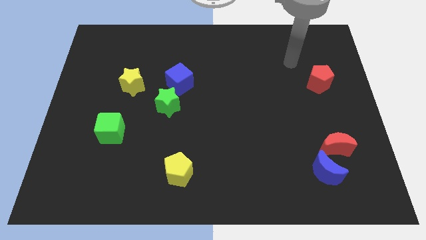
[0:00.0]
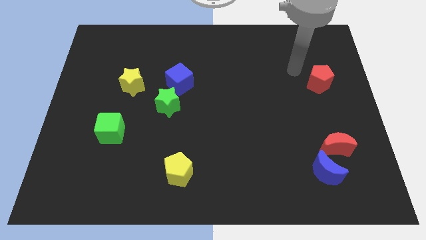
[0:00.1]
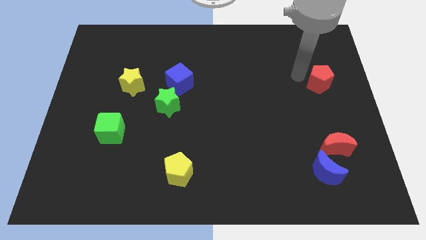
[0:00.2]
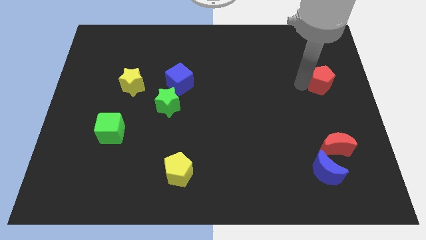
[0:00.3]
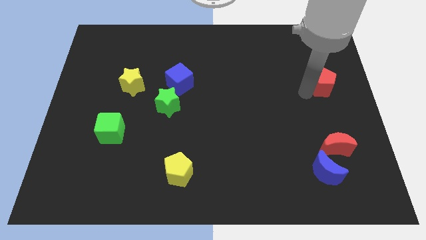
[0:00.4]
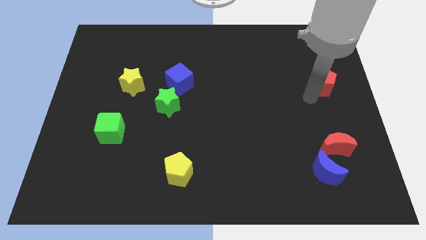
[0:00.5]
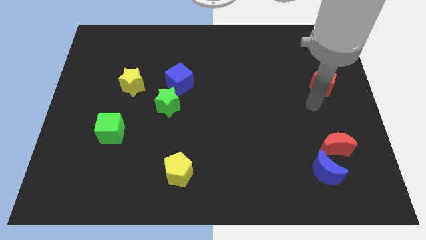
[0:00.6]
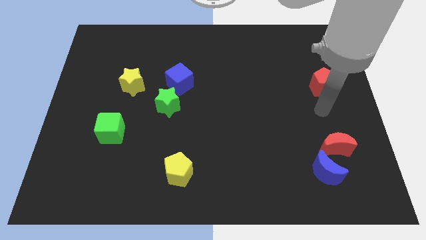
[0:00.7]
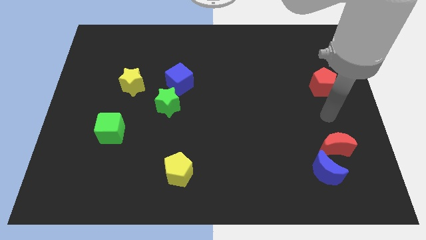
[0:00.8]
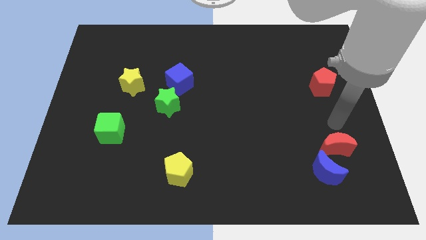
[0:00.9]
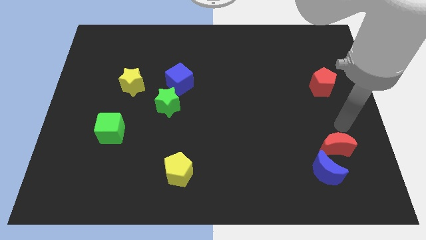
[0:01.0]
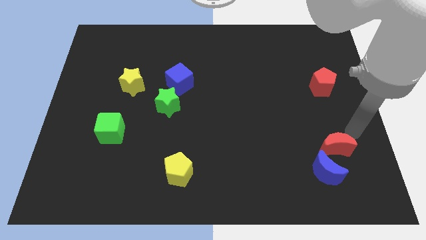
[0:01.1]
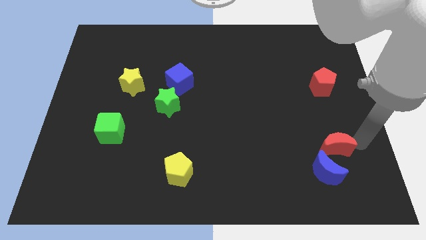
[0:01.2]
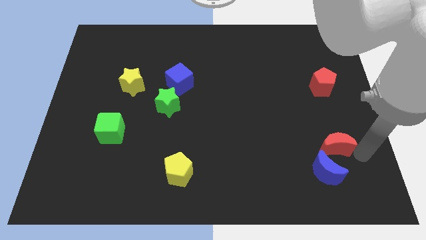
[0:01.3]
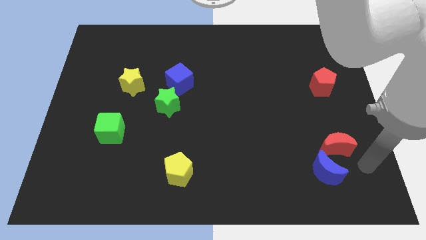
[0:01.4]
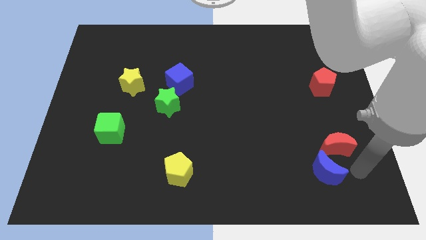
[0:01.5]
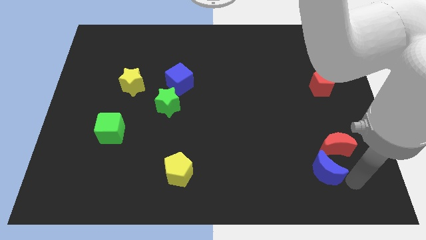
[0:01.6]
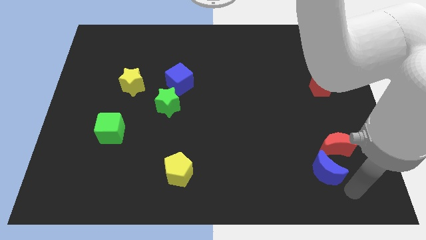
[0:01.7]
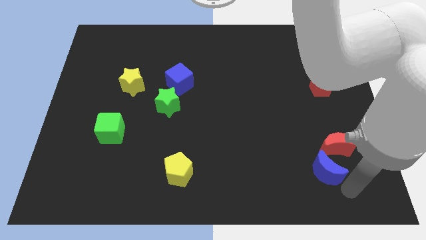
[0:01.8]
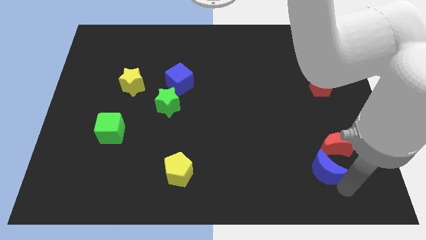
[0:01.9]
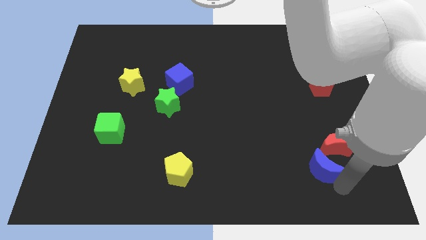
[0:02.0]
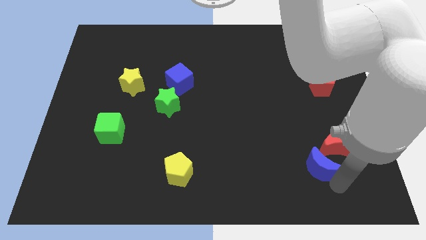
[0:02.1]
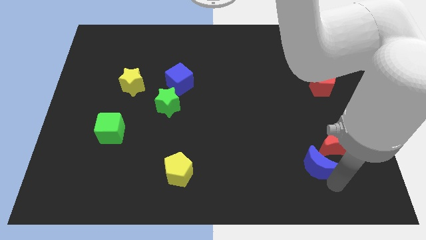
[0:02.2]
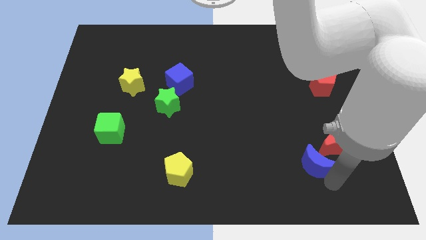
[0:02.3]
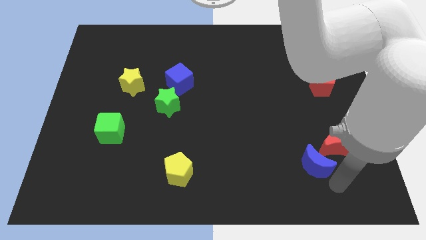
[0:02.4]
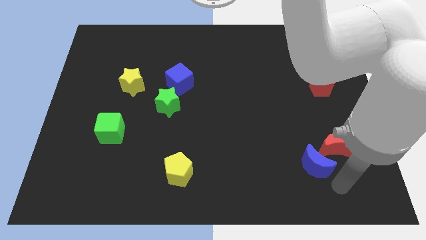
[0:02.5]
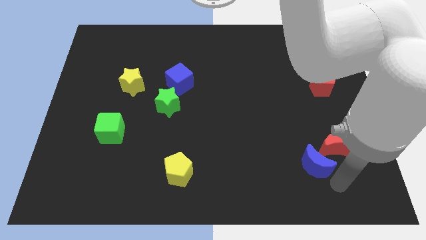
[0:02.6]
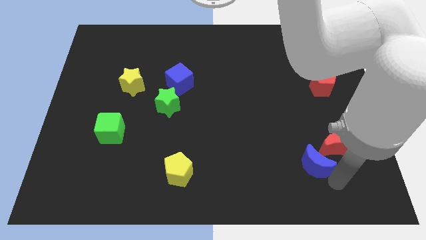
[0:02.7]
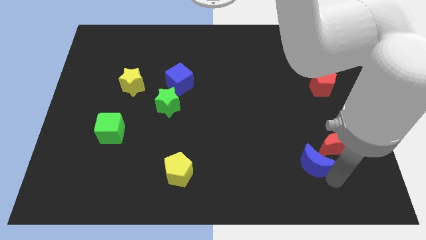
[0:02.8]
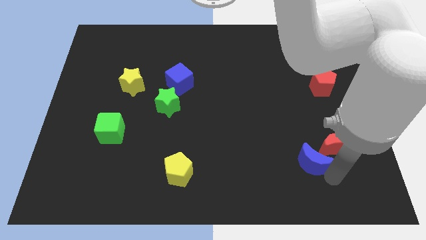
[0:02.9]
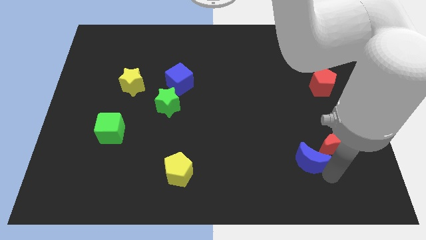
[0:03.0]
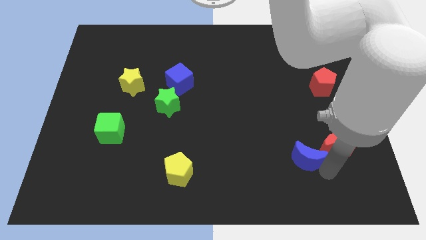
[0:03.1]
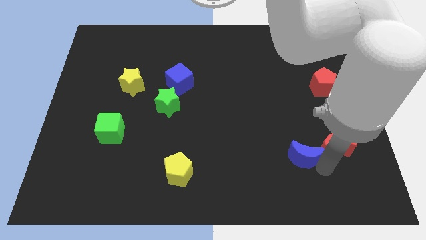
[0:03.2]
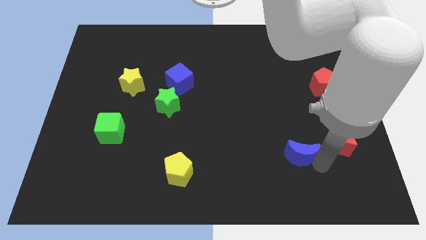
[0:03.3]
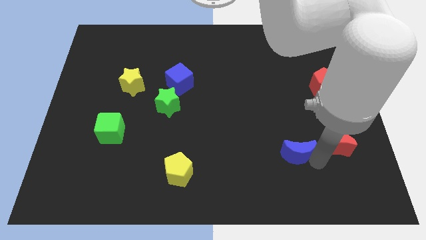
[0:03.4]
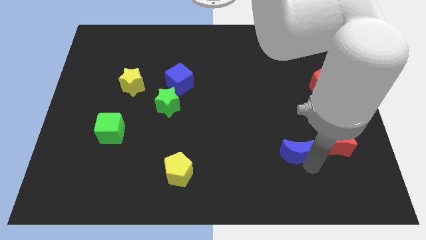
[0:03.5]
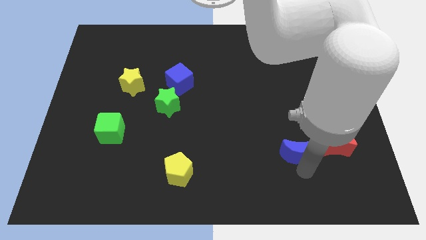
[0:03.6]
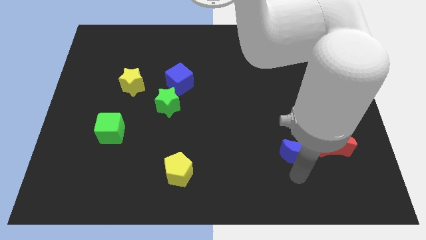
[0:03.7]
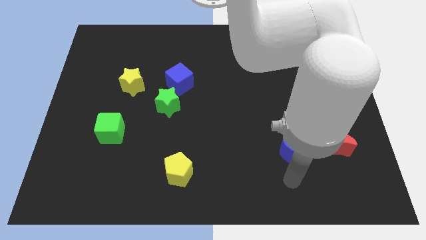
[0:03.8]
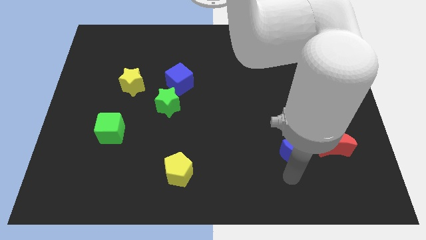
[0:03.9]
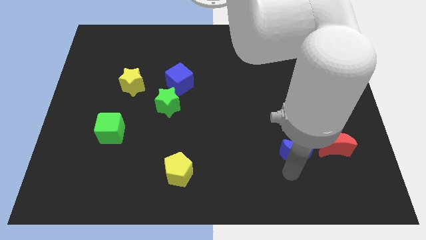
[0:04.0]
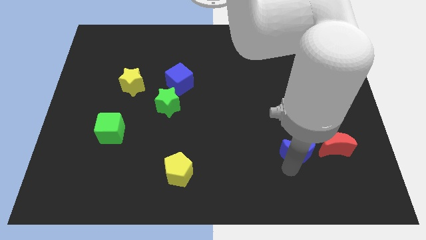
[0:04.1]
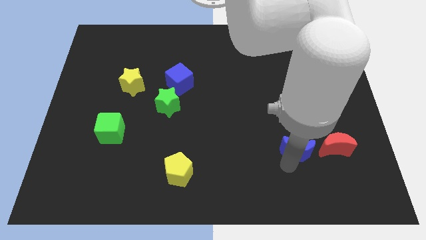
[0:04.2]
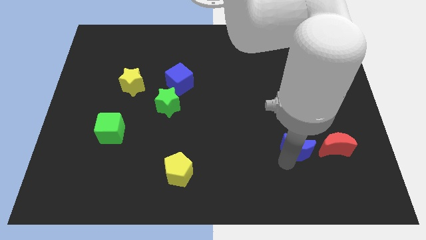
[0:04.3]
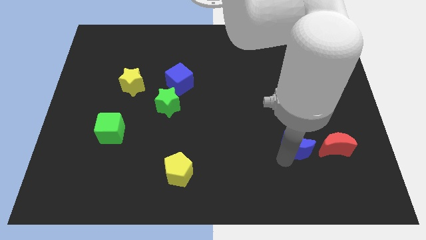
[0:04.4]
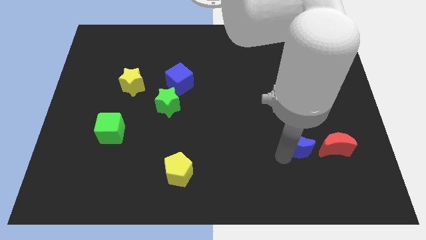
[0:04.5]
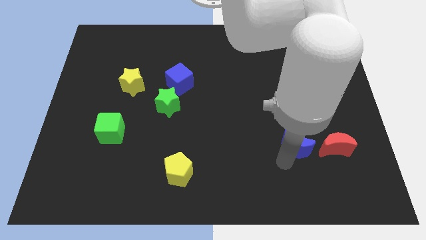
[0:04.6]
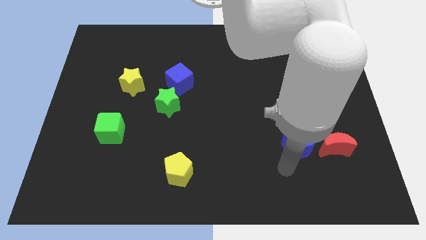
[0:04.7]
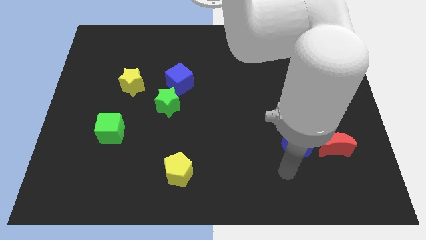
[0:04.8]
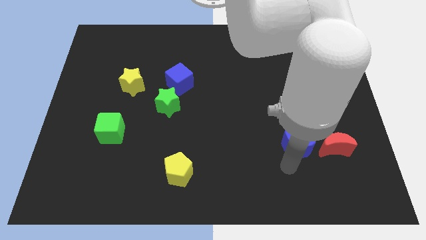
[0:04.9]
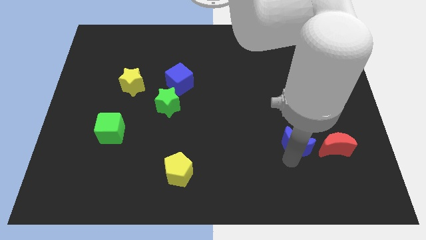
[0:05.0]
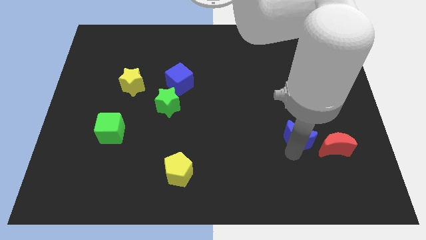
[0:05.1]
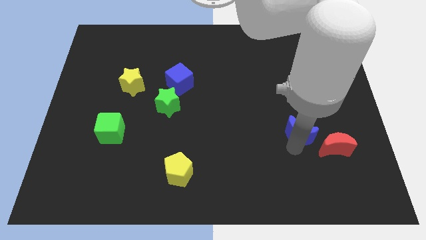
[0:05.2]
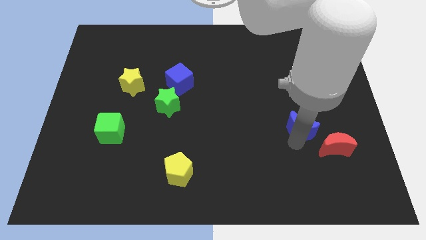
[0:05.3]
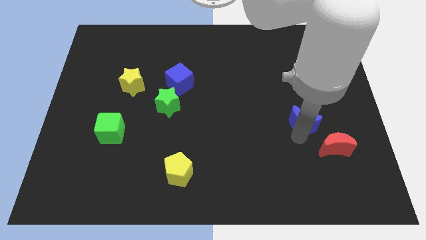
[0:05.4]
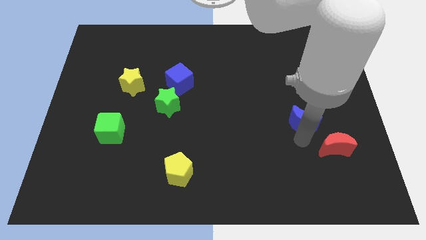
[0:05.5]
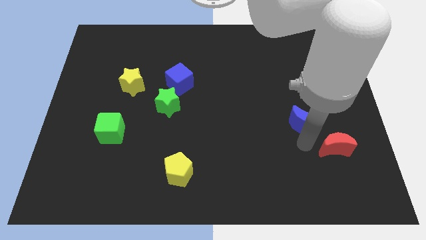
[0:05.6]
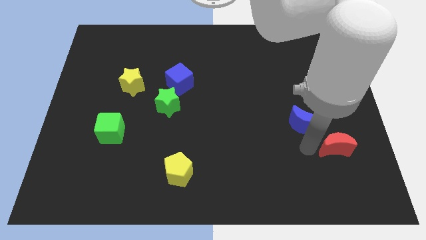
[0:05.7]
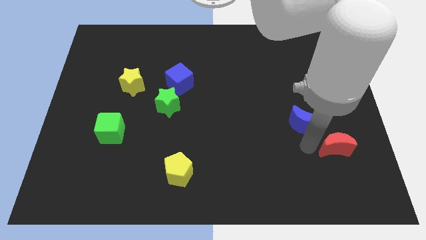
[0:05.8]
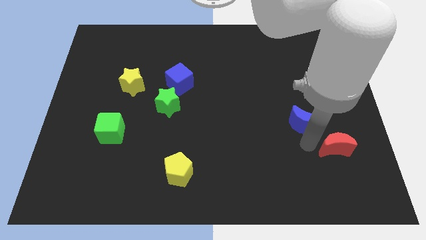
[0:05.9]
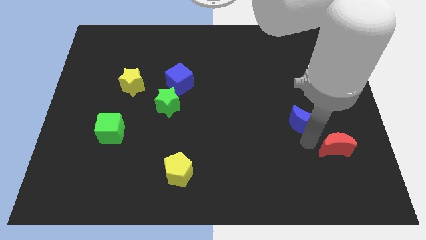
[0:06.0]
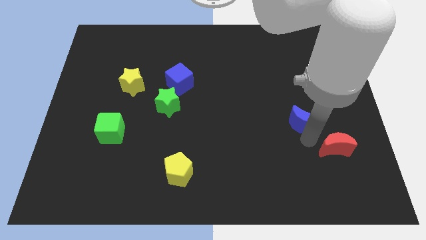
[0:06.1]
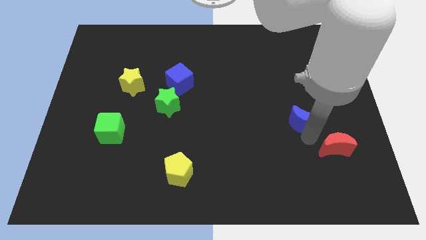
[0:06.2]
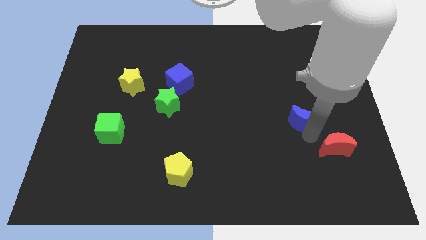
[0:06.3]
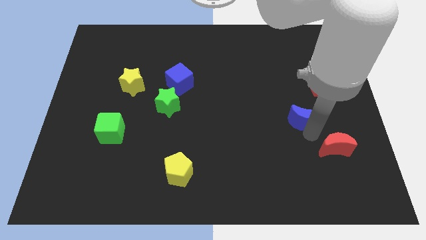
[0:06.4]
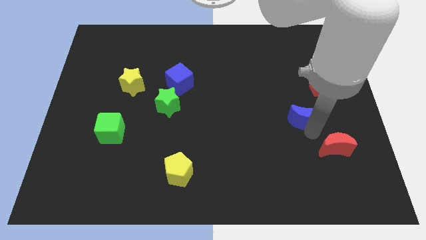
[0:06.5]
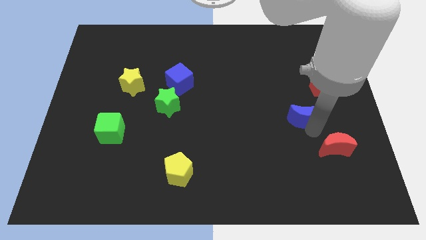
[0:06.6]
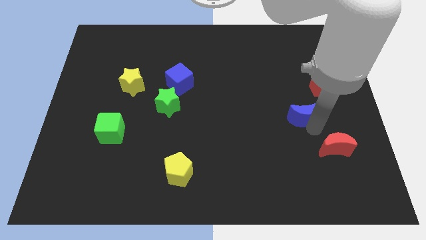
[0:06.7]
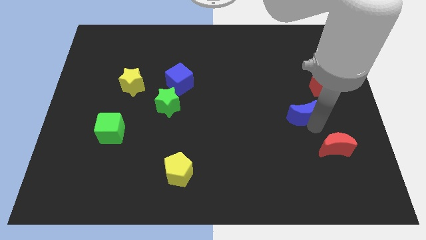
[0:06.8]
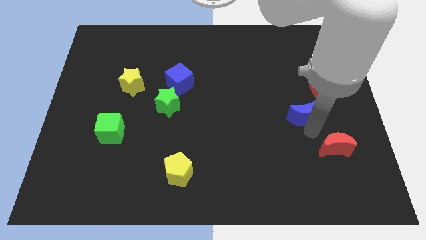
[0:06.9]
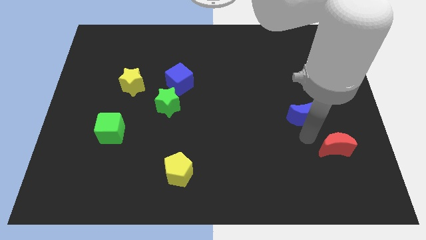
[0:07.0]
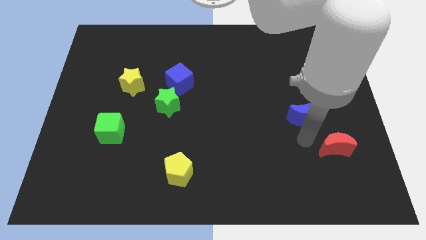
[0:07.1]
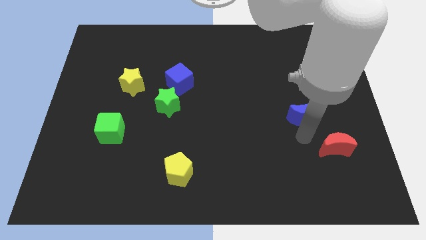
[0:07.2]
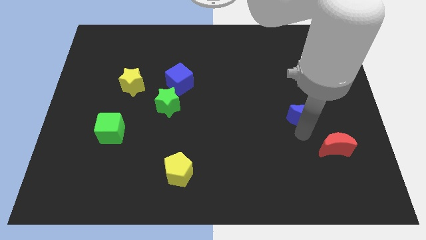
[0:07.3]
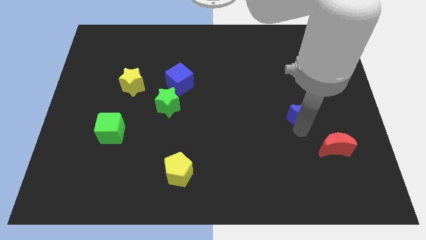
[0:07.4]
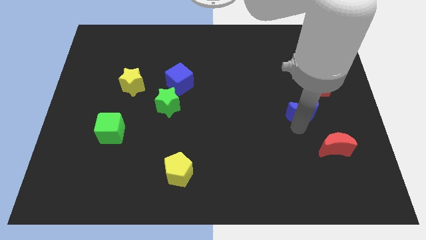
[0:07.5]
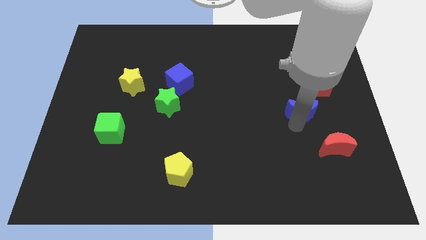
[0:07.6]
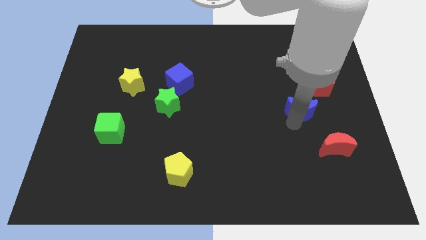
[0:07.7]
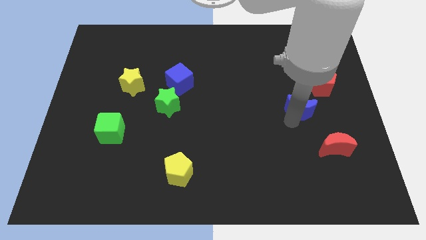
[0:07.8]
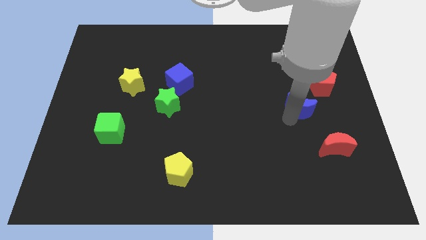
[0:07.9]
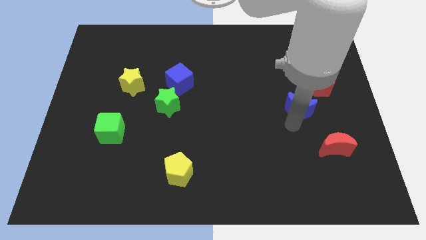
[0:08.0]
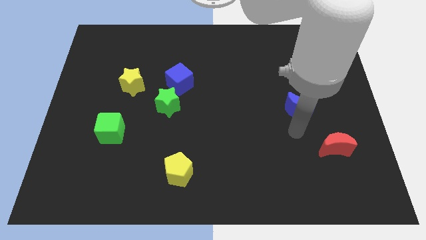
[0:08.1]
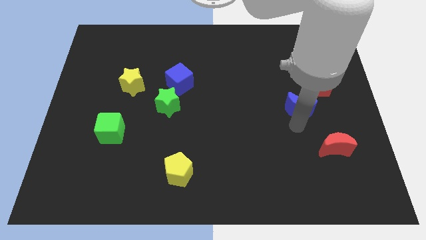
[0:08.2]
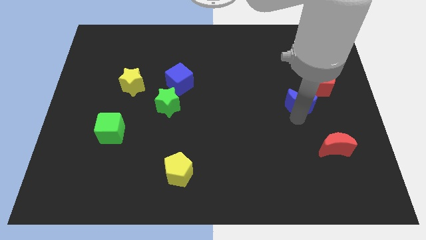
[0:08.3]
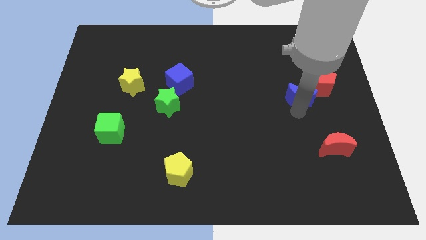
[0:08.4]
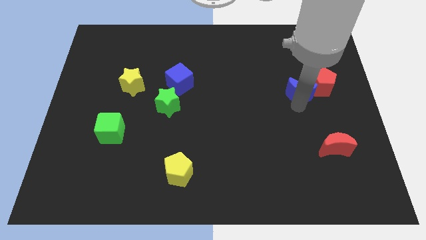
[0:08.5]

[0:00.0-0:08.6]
push the blue moon upwards
